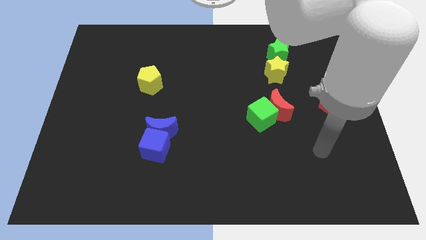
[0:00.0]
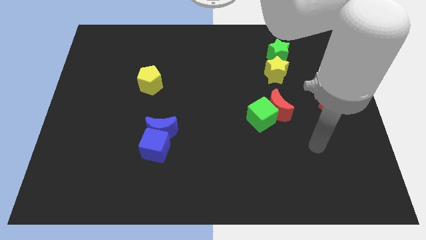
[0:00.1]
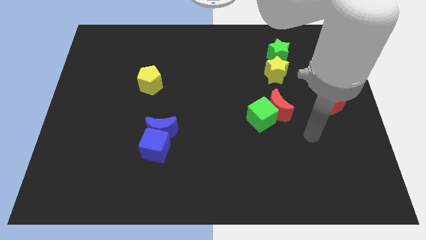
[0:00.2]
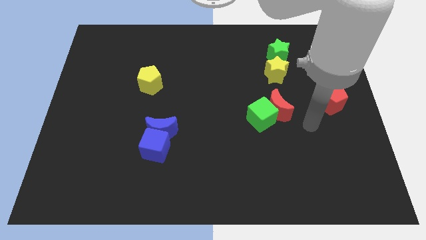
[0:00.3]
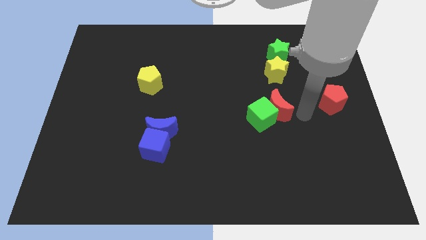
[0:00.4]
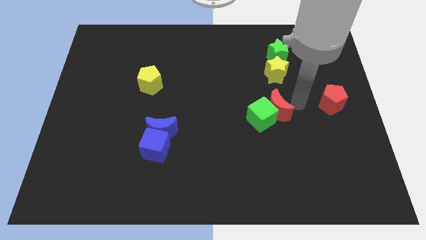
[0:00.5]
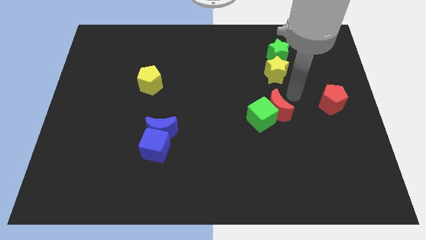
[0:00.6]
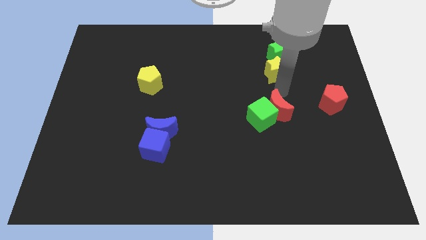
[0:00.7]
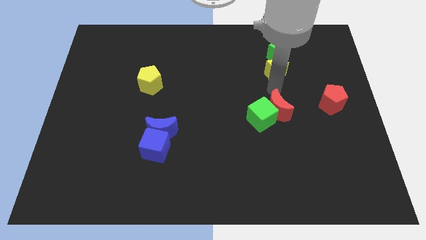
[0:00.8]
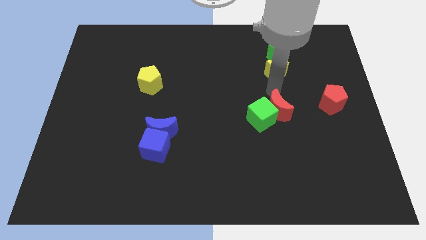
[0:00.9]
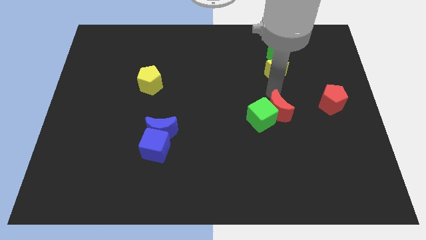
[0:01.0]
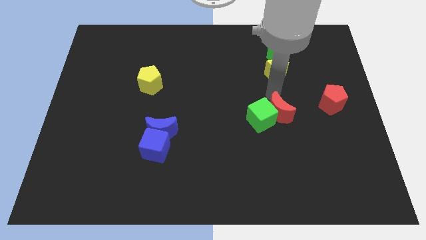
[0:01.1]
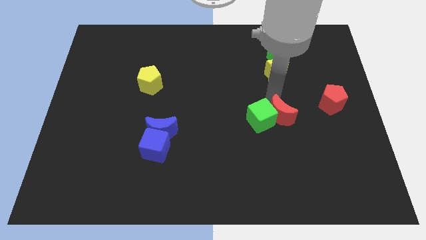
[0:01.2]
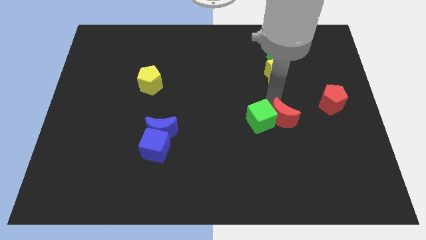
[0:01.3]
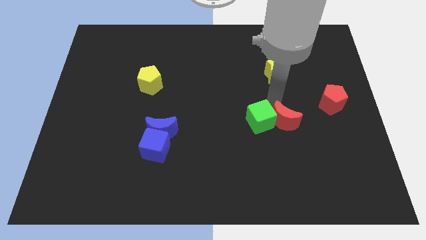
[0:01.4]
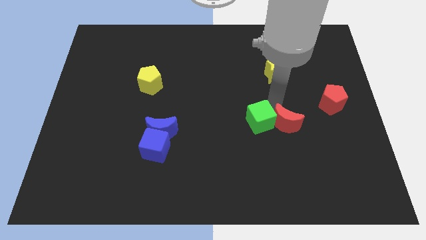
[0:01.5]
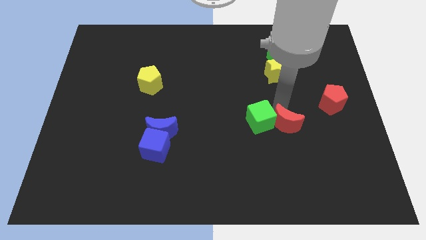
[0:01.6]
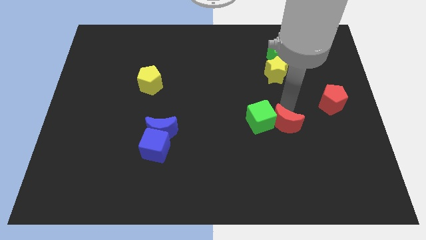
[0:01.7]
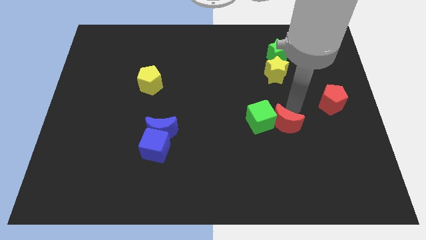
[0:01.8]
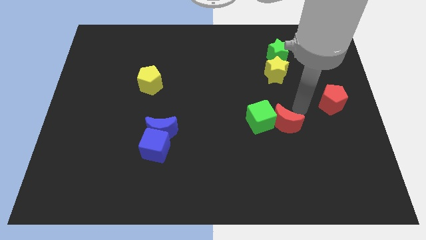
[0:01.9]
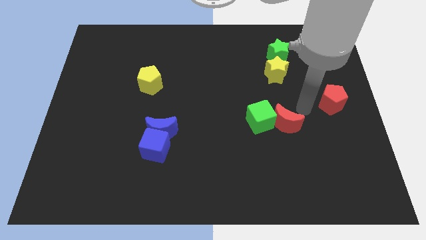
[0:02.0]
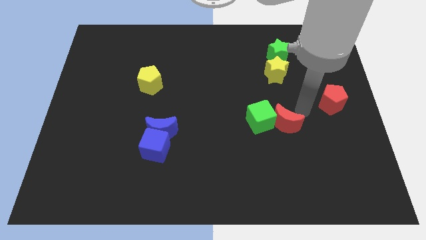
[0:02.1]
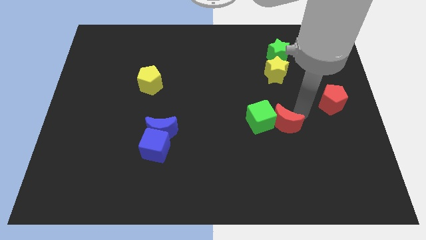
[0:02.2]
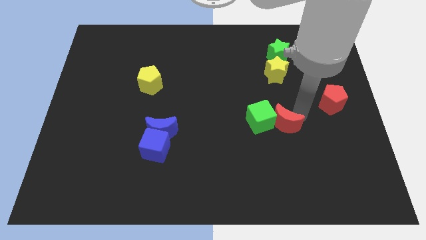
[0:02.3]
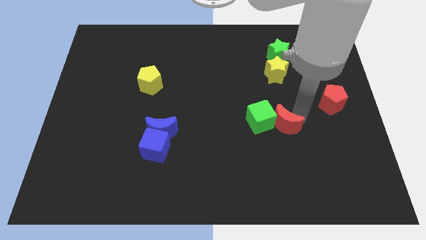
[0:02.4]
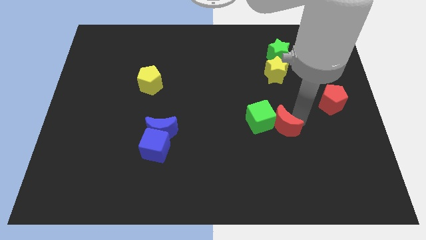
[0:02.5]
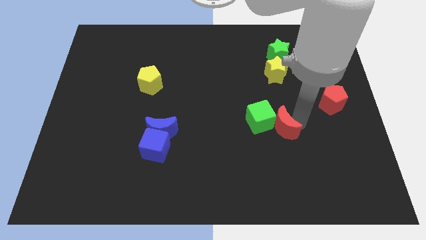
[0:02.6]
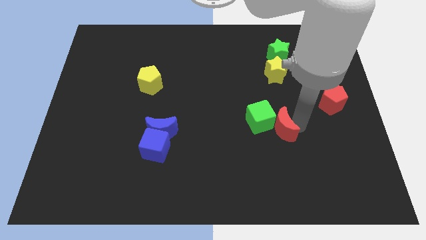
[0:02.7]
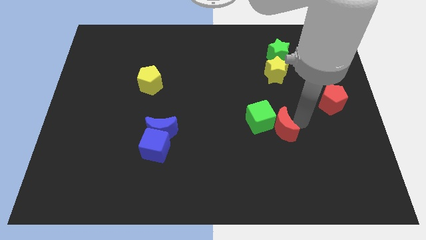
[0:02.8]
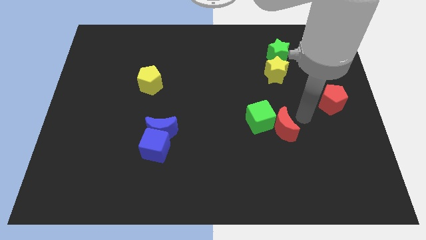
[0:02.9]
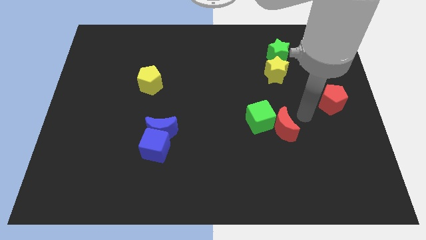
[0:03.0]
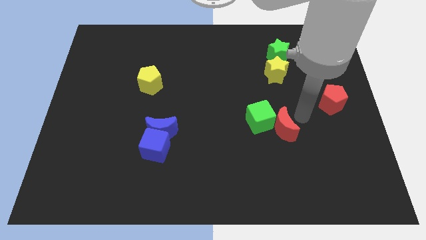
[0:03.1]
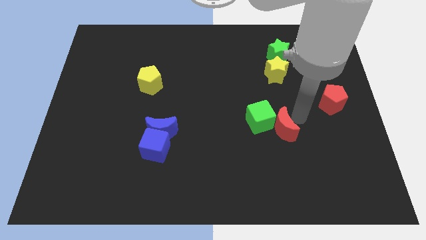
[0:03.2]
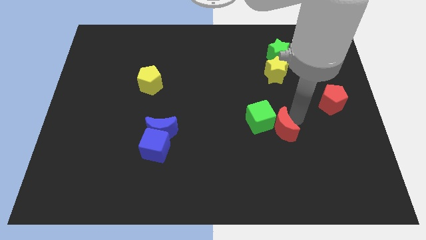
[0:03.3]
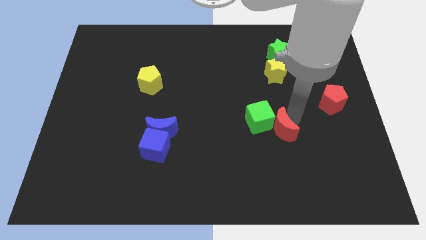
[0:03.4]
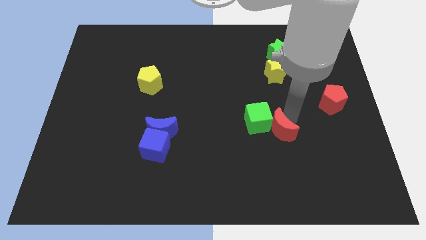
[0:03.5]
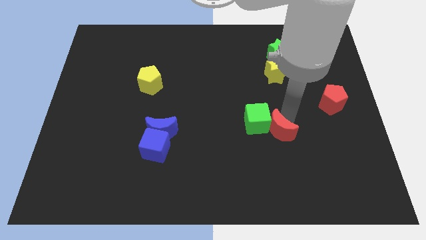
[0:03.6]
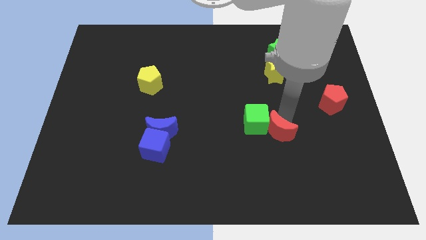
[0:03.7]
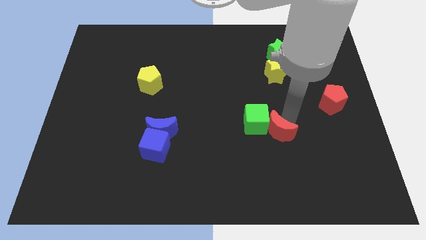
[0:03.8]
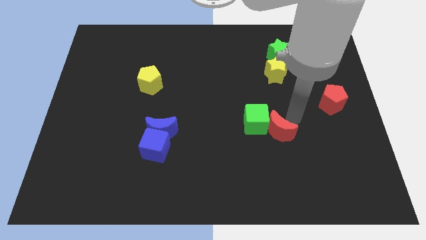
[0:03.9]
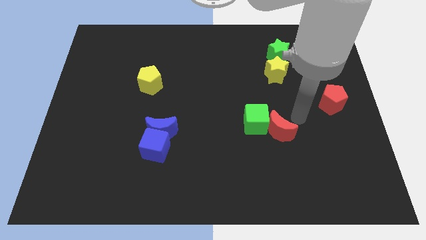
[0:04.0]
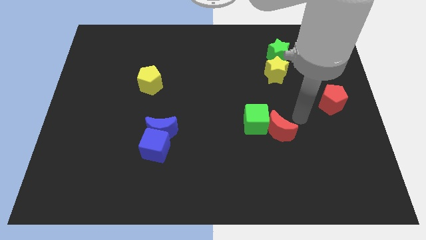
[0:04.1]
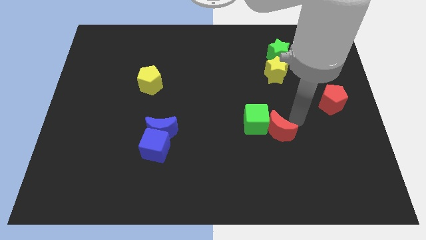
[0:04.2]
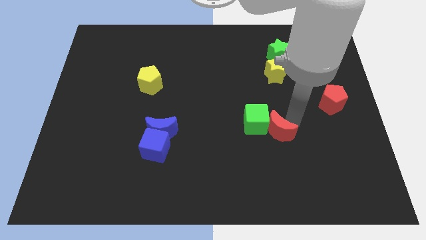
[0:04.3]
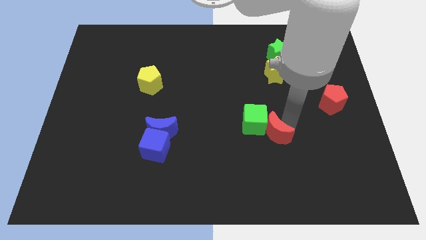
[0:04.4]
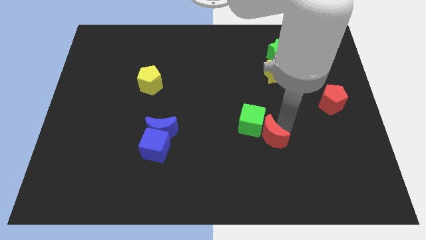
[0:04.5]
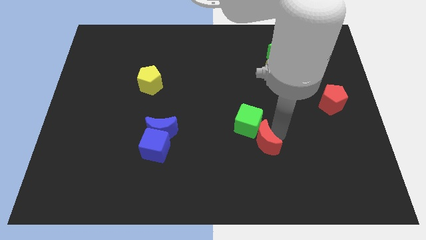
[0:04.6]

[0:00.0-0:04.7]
slightly push the red moon diagonally downwards and left

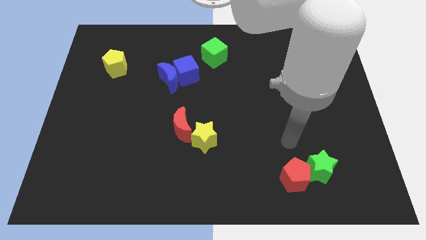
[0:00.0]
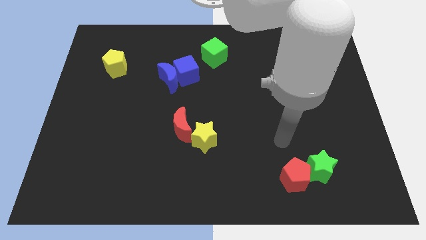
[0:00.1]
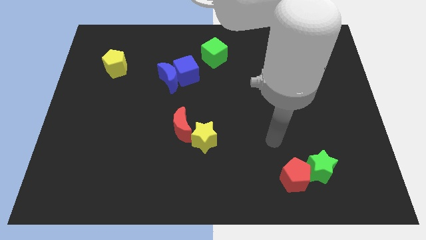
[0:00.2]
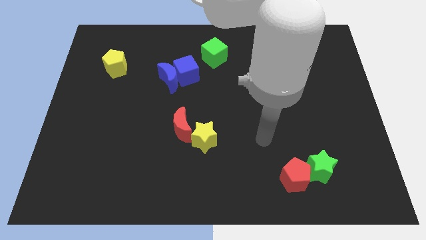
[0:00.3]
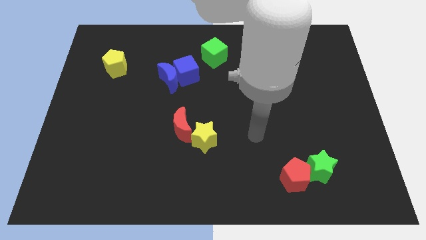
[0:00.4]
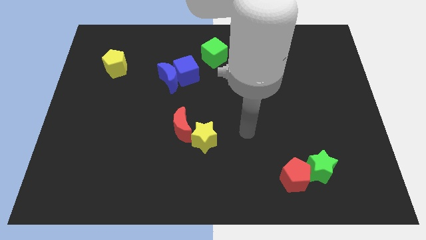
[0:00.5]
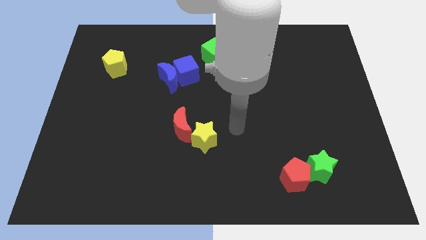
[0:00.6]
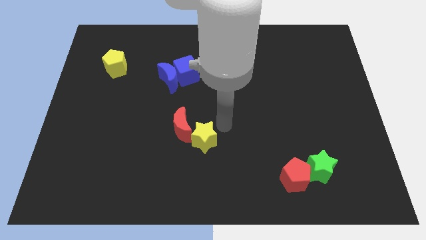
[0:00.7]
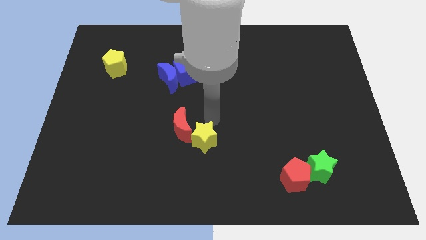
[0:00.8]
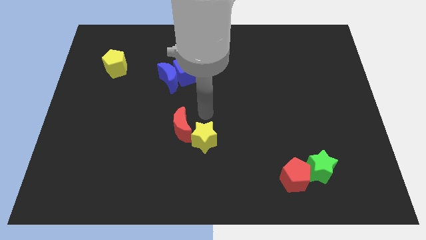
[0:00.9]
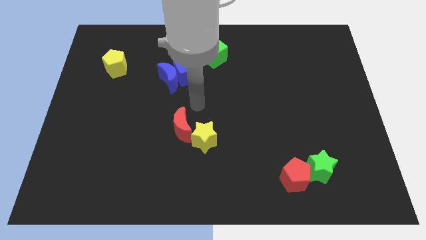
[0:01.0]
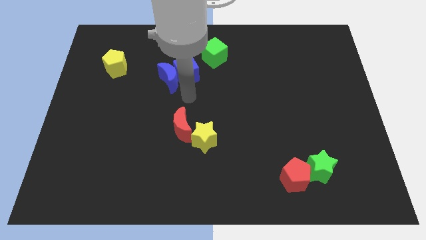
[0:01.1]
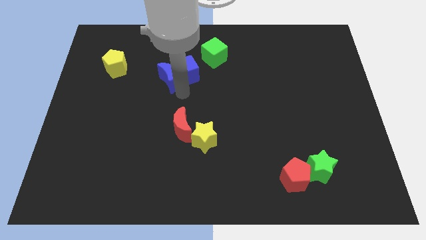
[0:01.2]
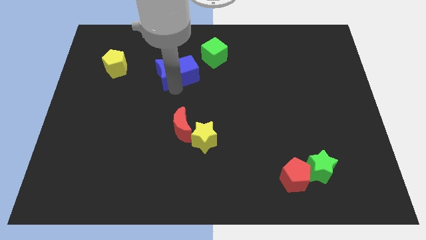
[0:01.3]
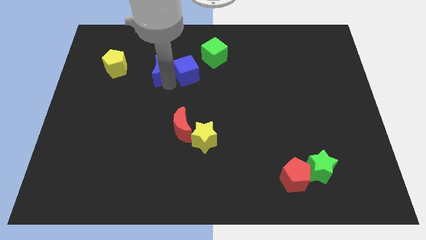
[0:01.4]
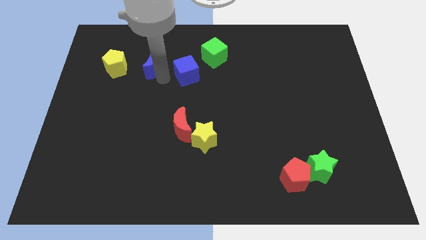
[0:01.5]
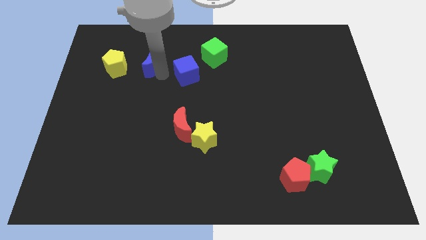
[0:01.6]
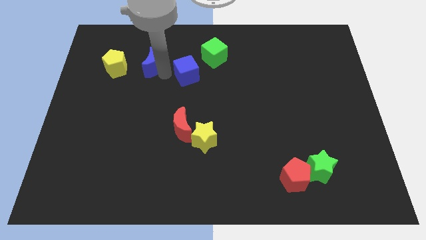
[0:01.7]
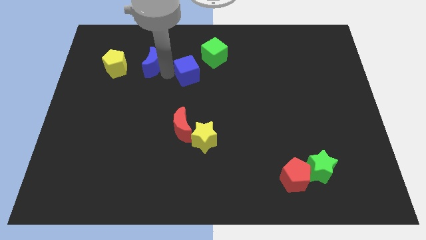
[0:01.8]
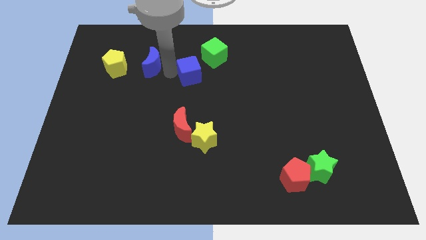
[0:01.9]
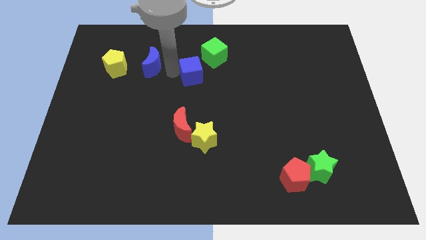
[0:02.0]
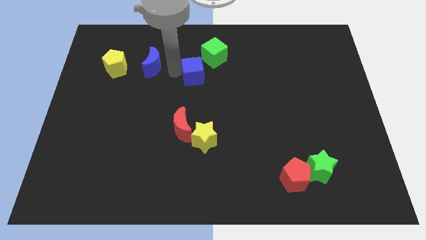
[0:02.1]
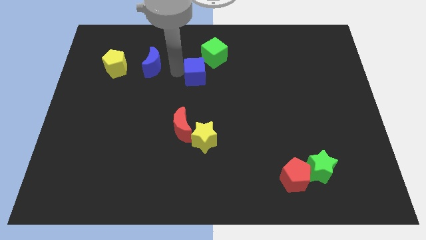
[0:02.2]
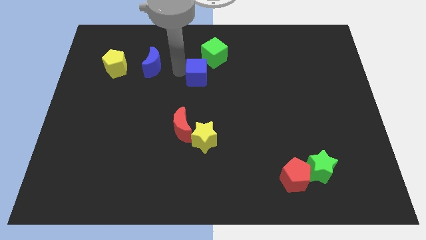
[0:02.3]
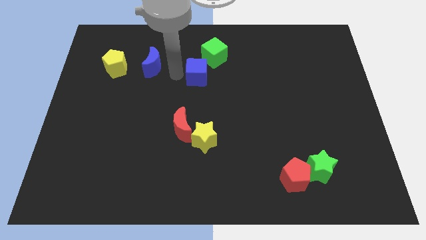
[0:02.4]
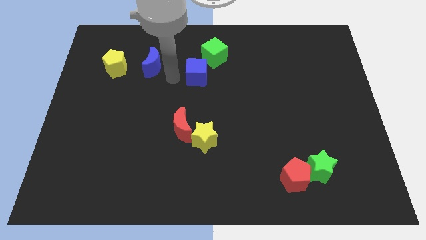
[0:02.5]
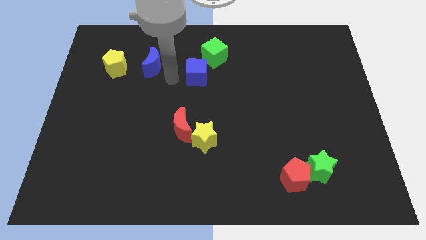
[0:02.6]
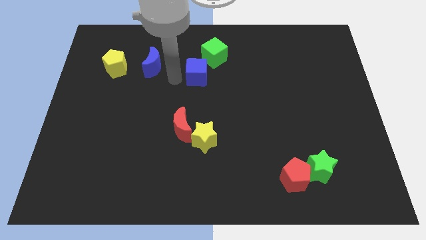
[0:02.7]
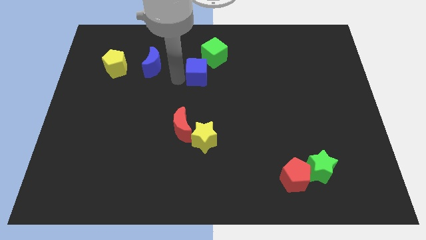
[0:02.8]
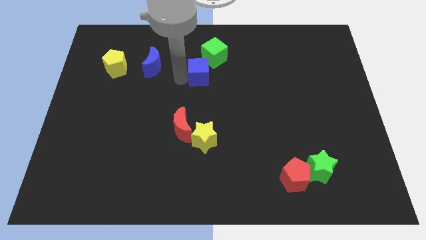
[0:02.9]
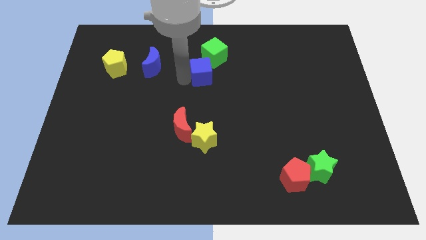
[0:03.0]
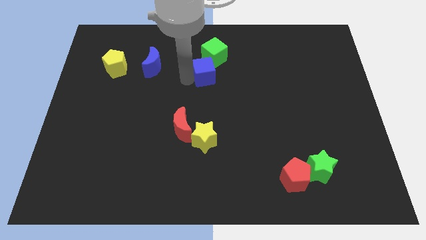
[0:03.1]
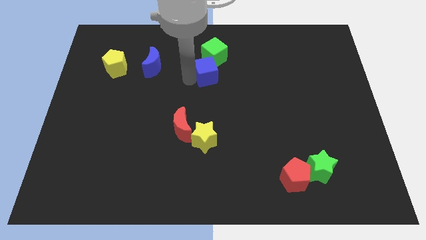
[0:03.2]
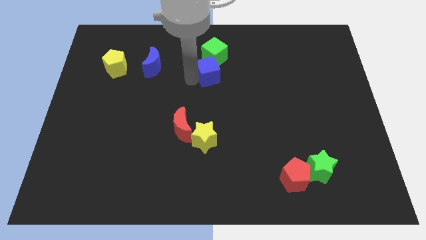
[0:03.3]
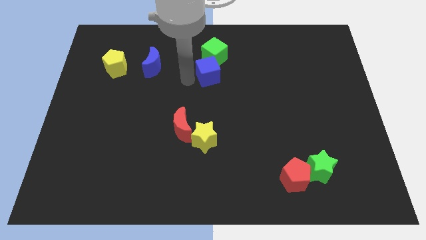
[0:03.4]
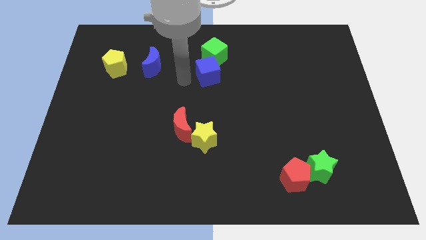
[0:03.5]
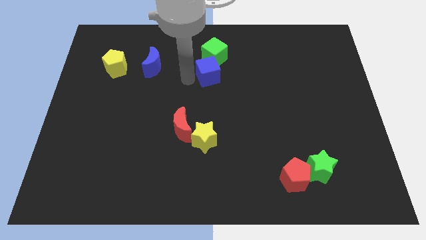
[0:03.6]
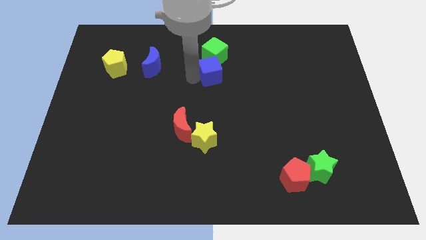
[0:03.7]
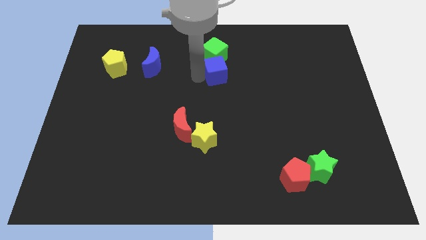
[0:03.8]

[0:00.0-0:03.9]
push the blue cube a bit to the right
